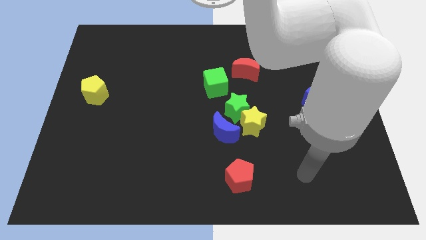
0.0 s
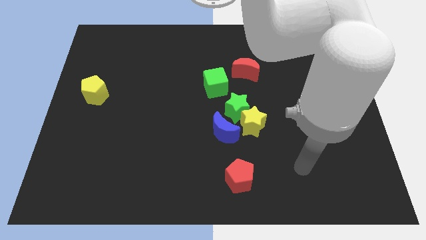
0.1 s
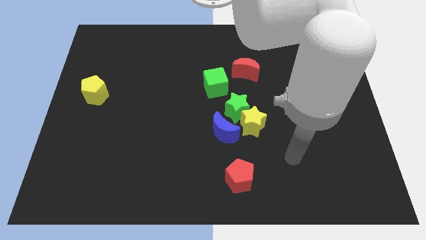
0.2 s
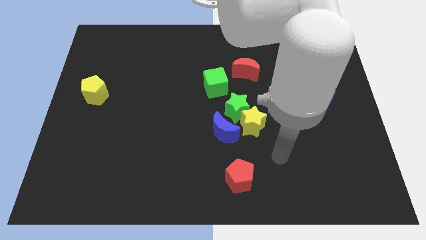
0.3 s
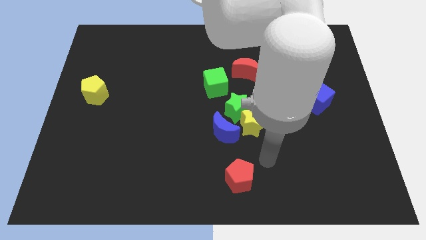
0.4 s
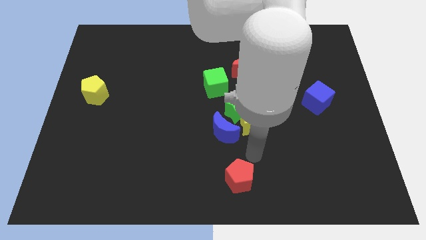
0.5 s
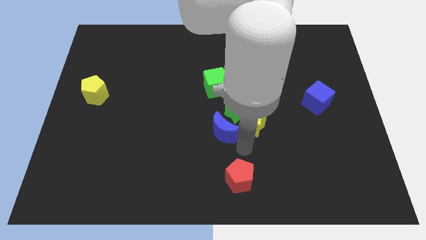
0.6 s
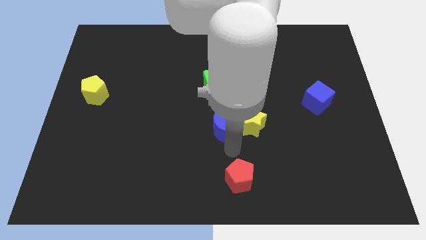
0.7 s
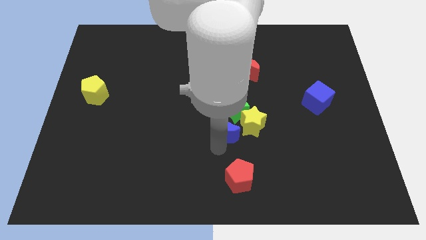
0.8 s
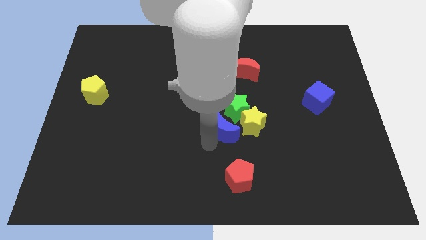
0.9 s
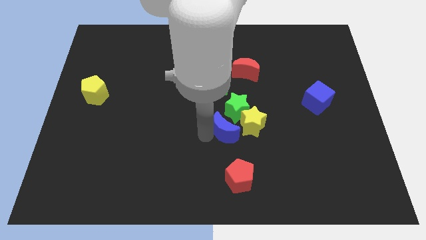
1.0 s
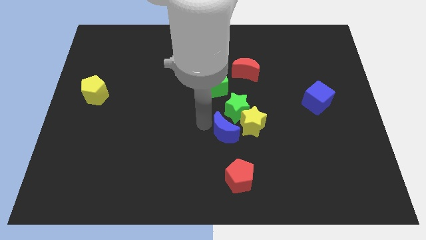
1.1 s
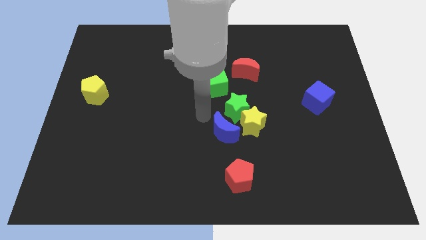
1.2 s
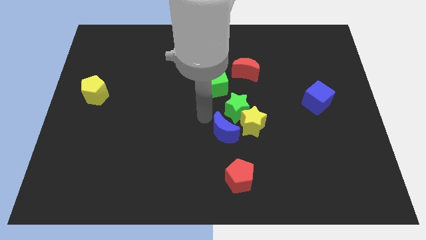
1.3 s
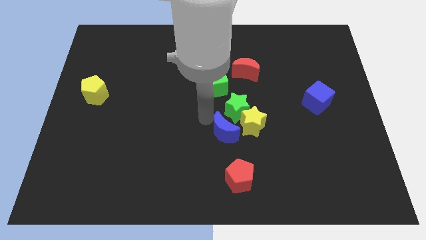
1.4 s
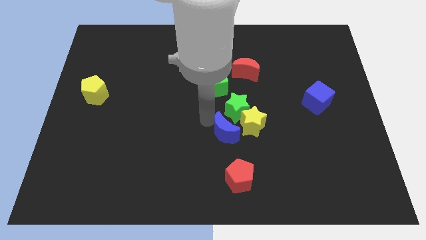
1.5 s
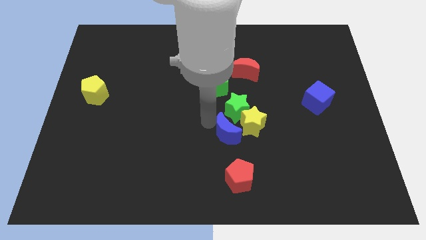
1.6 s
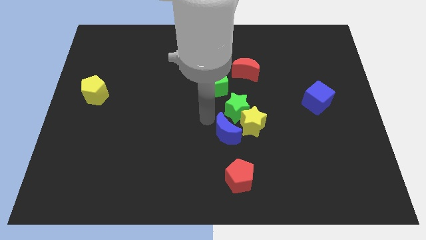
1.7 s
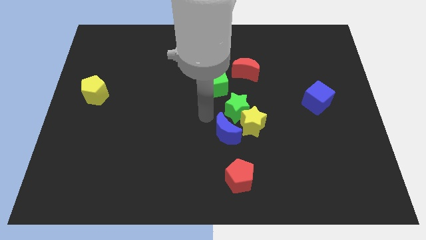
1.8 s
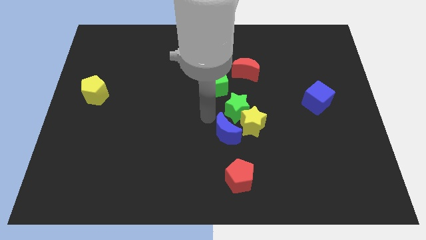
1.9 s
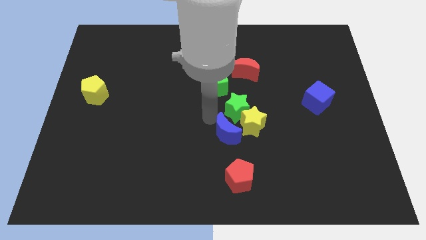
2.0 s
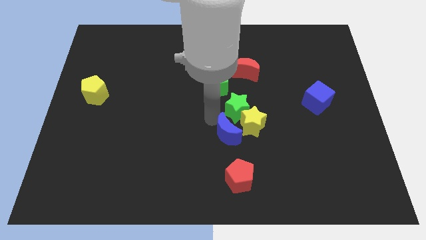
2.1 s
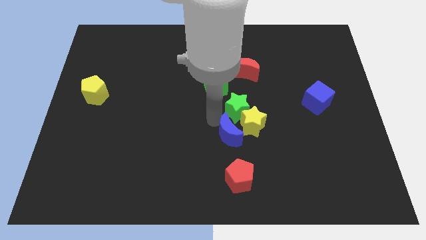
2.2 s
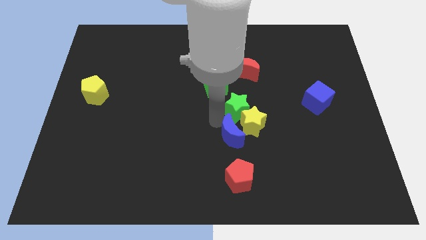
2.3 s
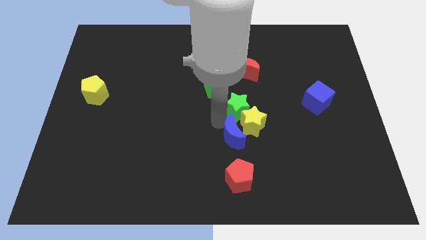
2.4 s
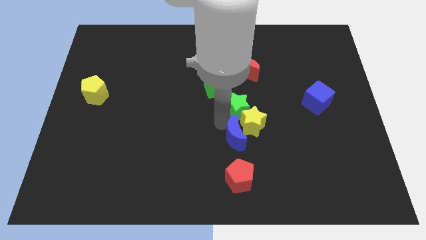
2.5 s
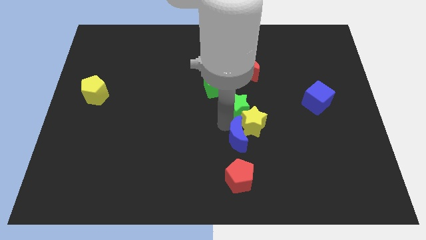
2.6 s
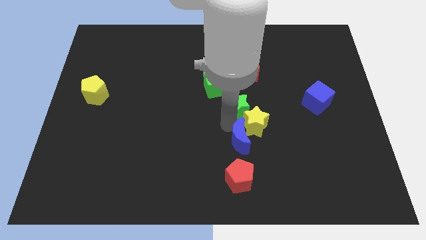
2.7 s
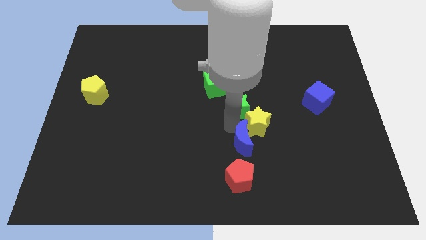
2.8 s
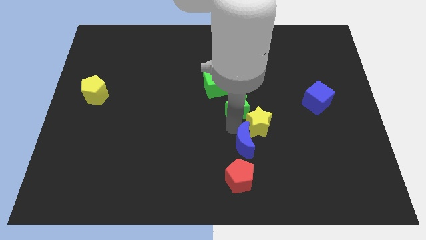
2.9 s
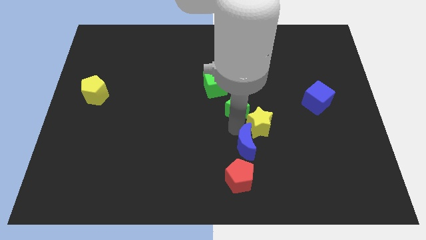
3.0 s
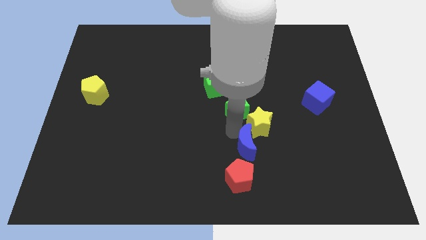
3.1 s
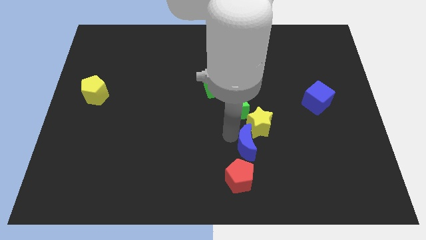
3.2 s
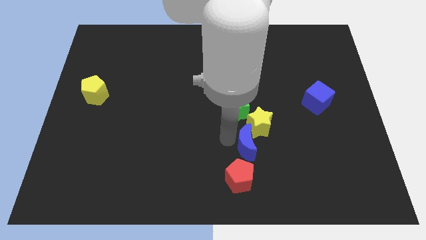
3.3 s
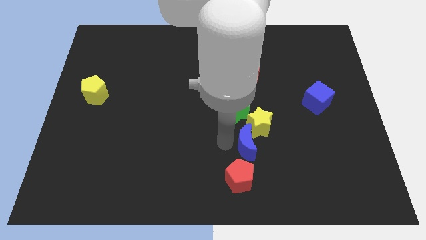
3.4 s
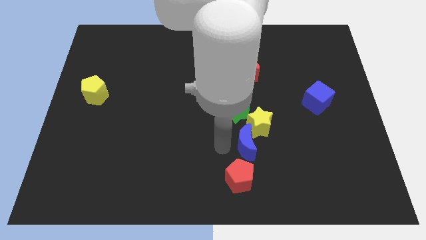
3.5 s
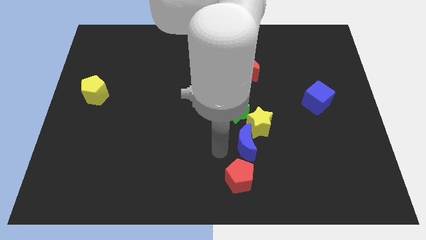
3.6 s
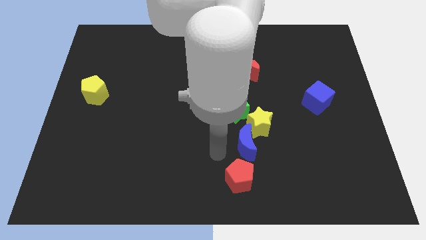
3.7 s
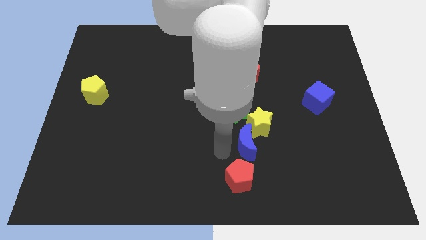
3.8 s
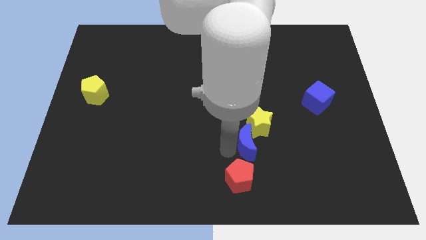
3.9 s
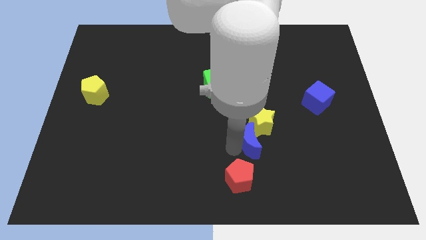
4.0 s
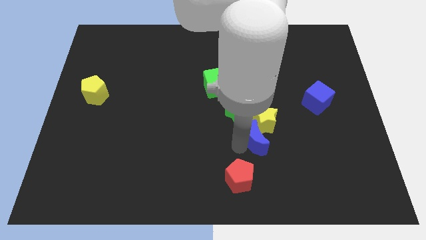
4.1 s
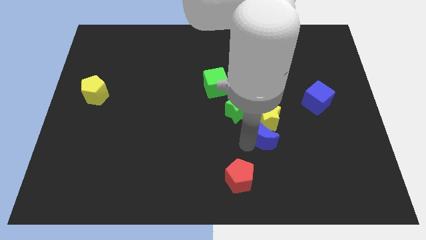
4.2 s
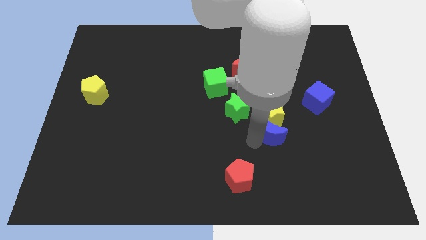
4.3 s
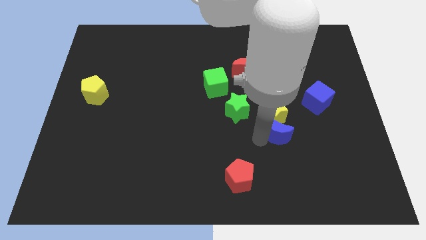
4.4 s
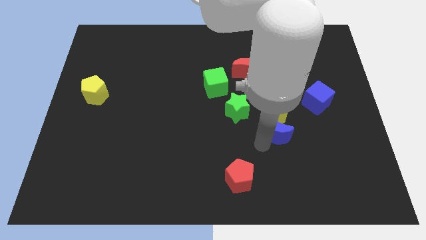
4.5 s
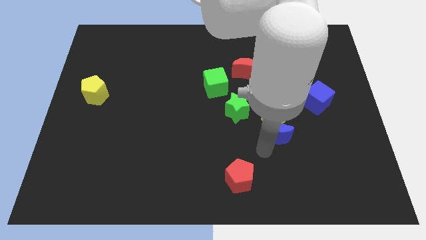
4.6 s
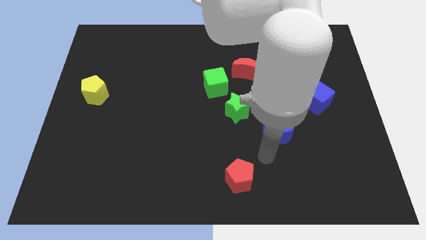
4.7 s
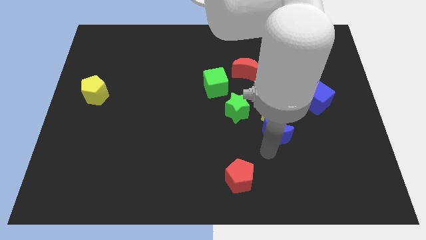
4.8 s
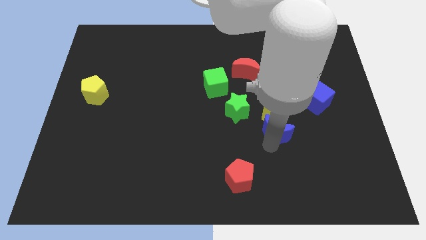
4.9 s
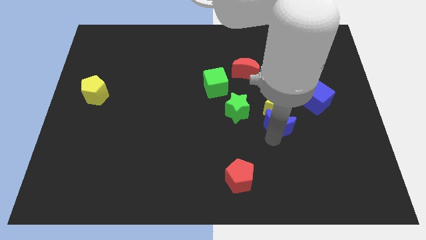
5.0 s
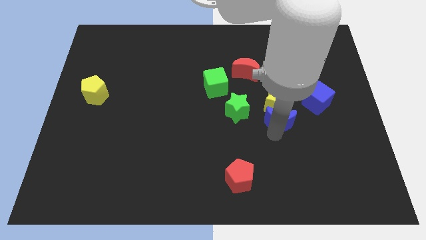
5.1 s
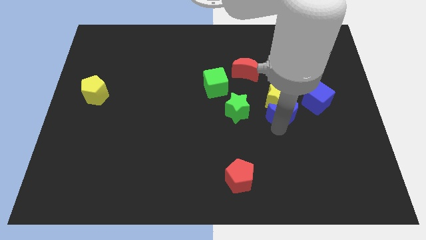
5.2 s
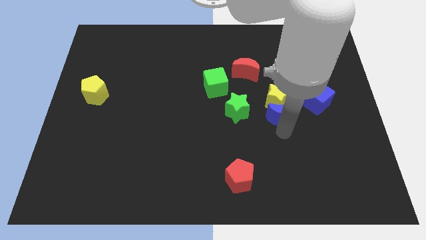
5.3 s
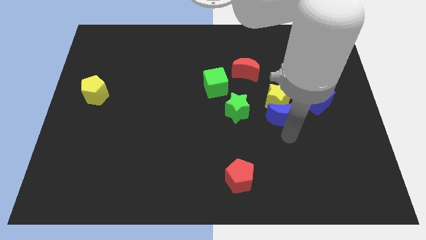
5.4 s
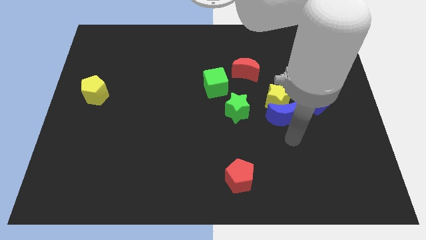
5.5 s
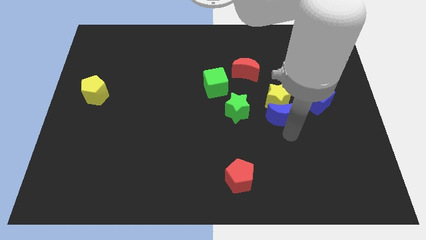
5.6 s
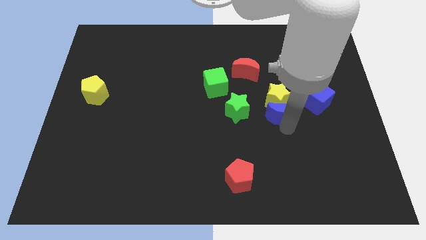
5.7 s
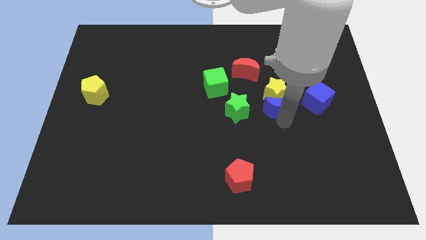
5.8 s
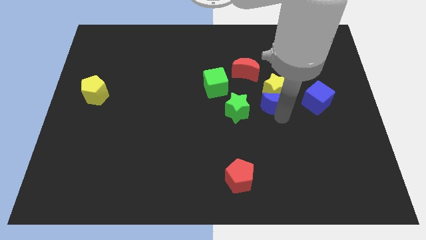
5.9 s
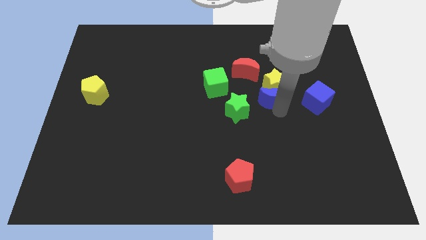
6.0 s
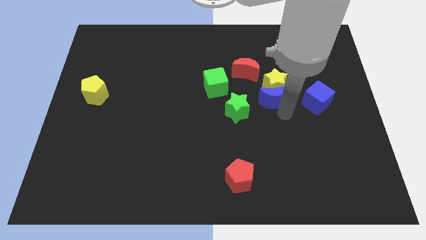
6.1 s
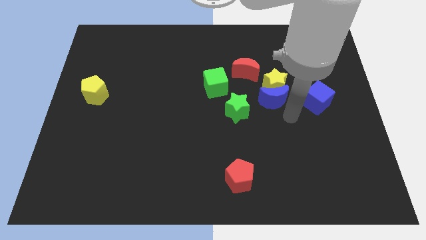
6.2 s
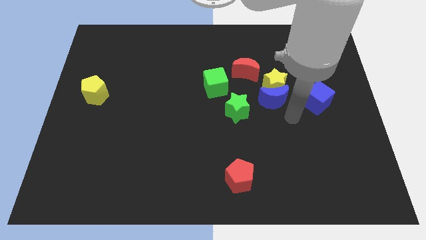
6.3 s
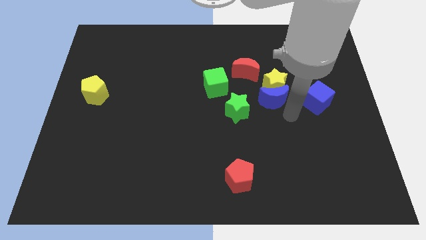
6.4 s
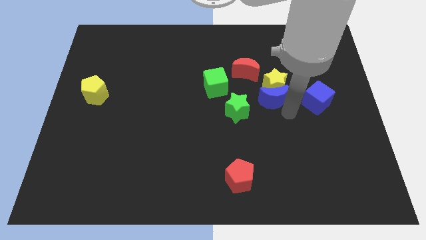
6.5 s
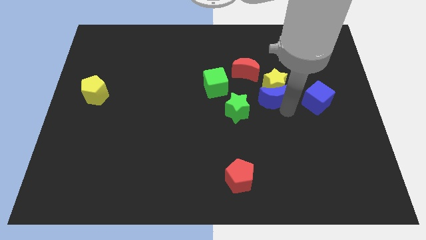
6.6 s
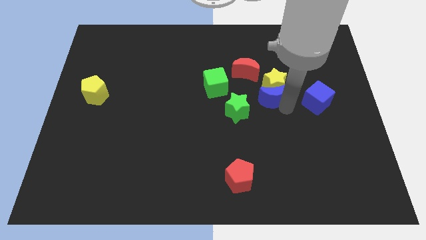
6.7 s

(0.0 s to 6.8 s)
move the blue moon right of the green cube

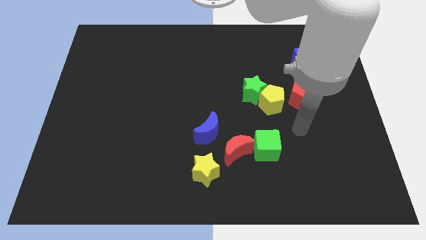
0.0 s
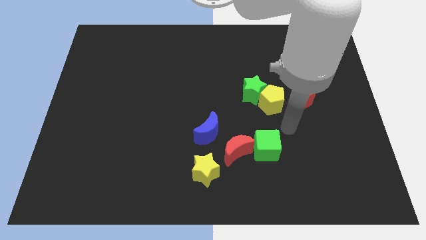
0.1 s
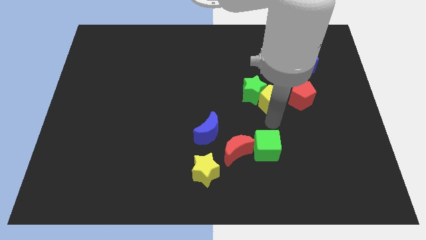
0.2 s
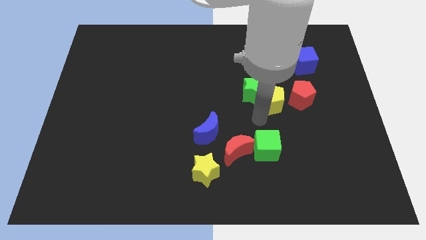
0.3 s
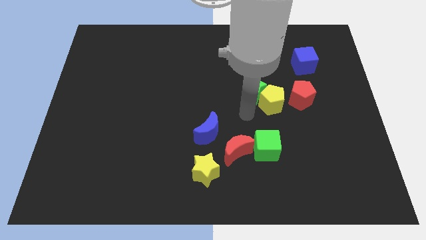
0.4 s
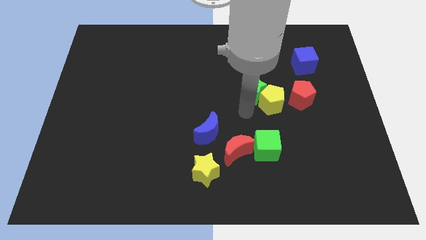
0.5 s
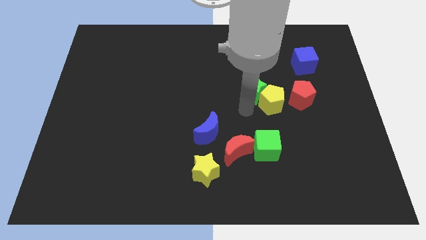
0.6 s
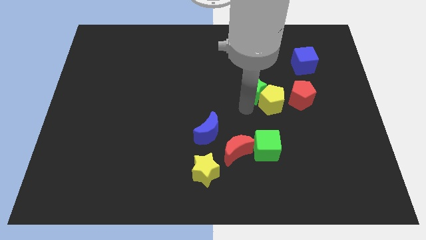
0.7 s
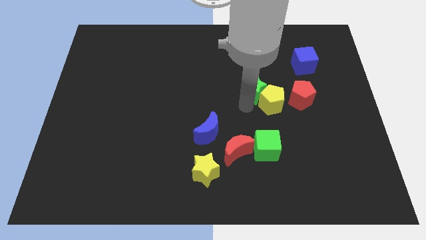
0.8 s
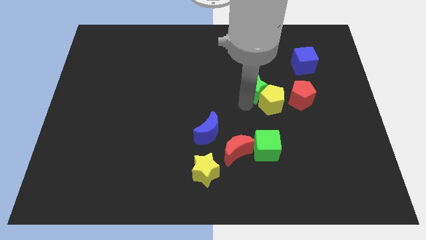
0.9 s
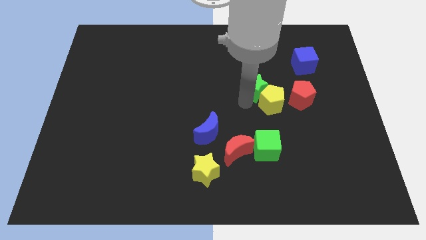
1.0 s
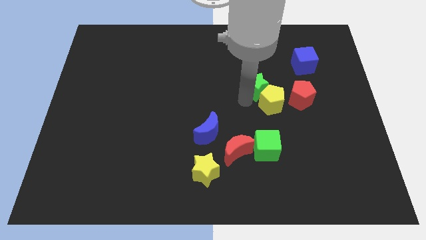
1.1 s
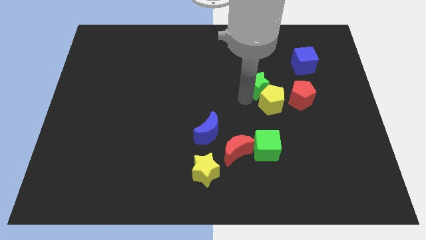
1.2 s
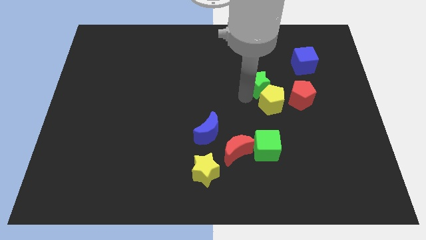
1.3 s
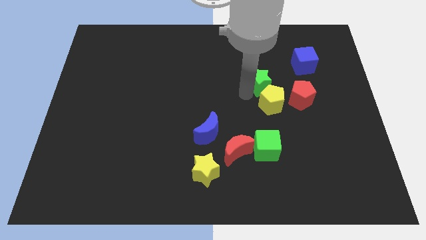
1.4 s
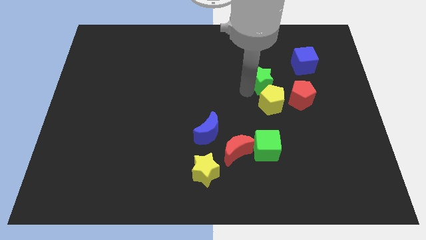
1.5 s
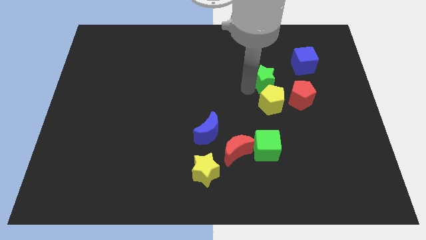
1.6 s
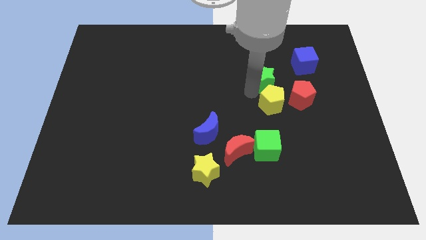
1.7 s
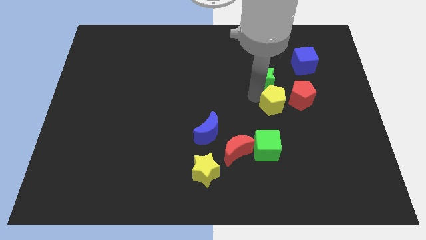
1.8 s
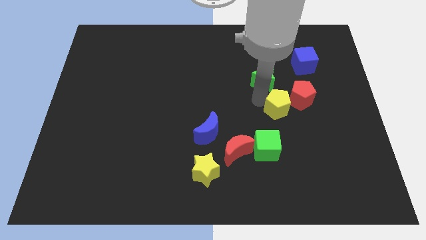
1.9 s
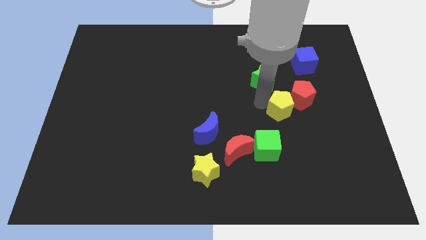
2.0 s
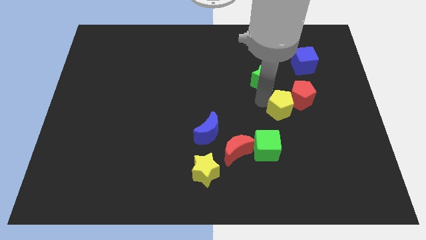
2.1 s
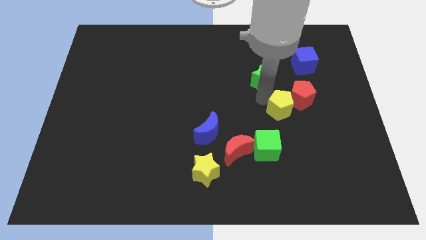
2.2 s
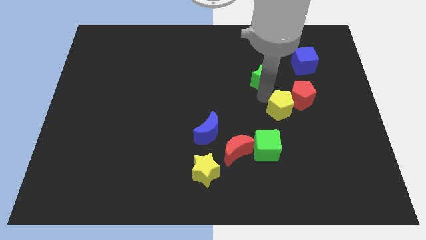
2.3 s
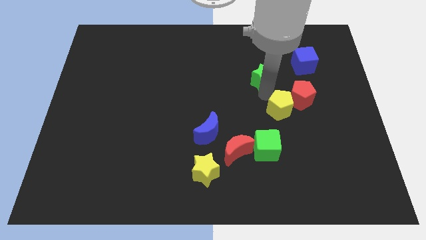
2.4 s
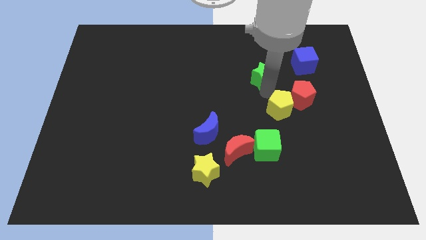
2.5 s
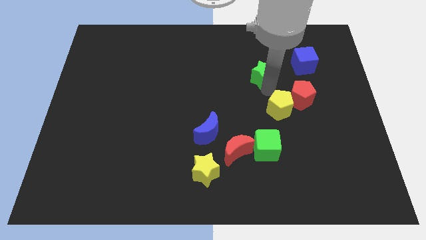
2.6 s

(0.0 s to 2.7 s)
move the green star left of the blue cube
